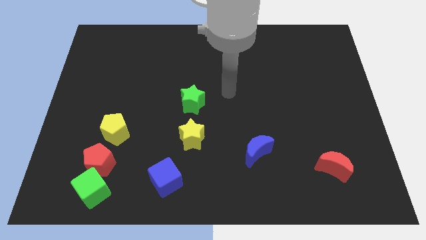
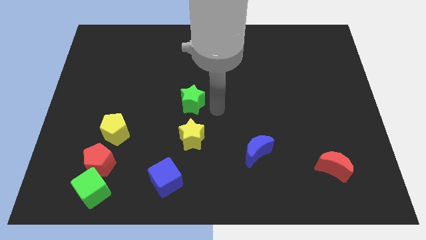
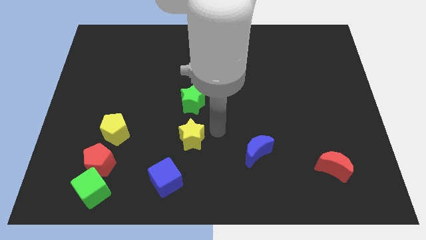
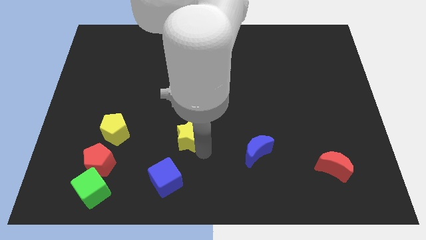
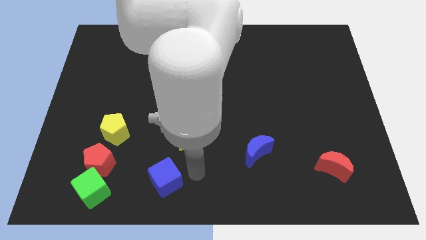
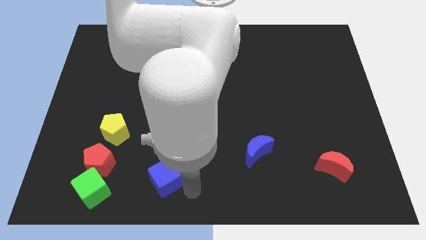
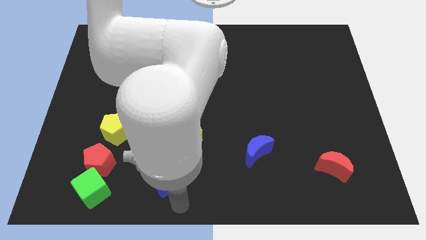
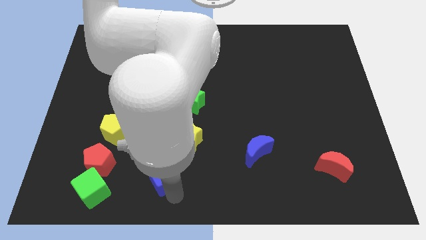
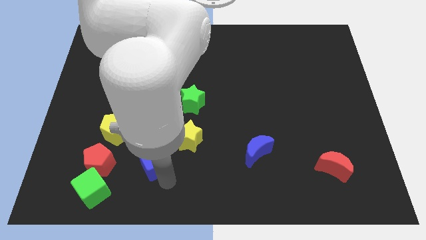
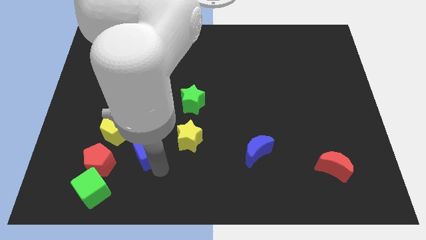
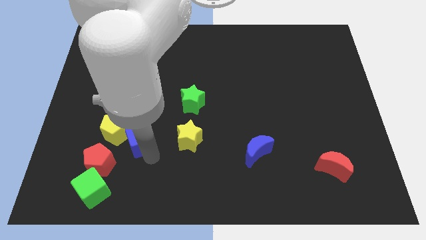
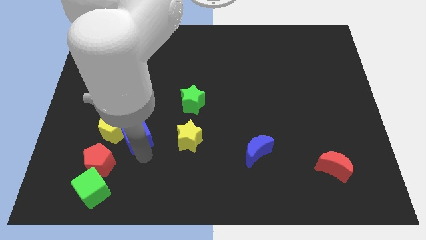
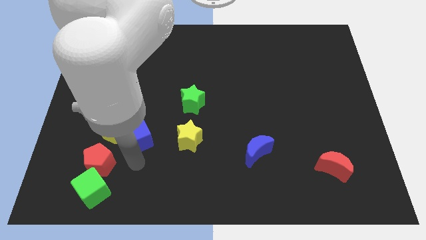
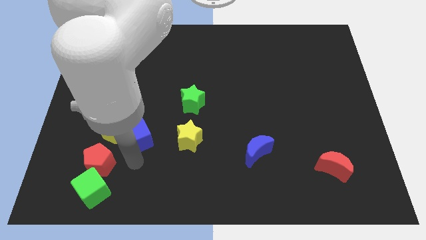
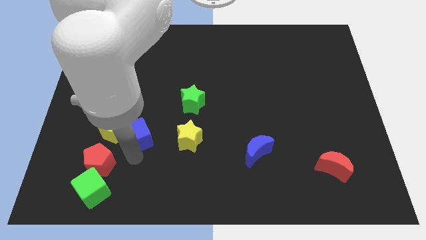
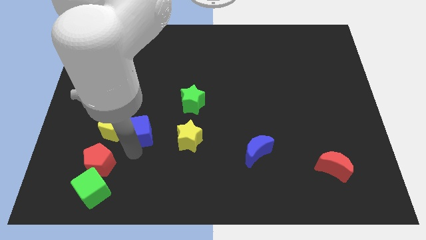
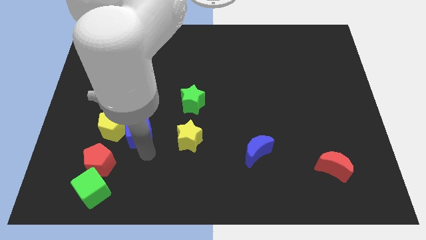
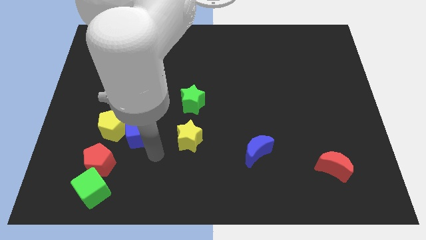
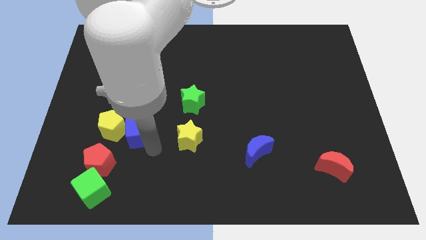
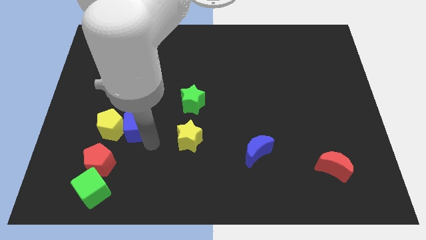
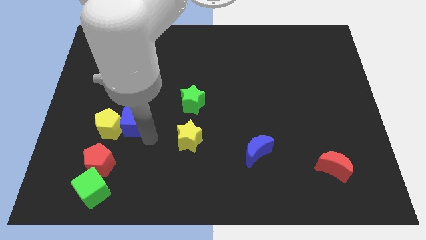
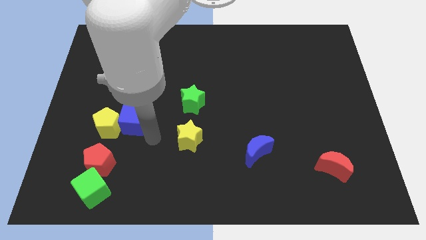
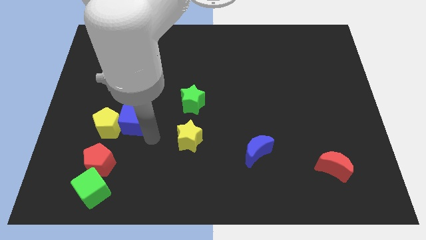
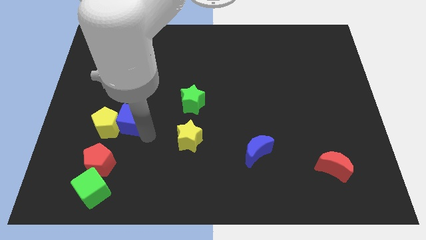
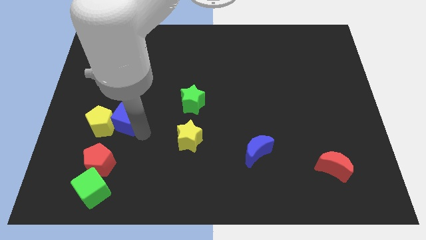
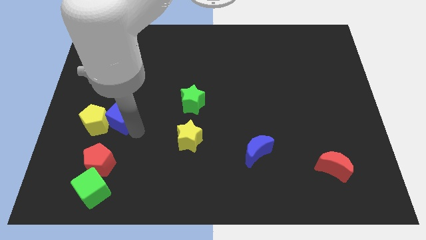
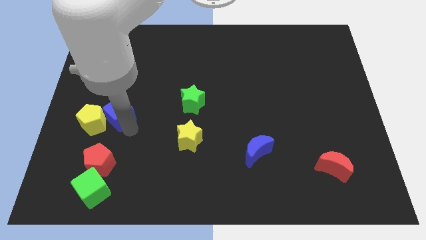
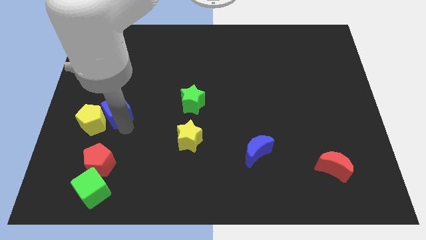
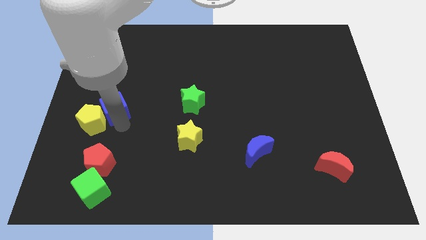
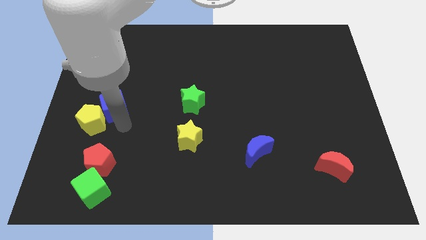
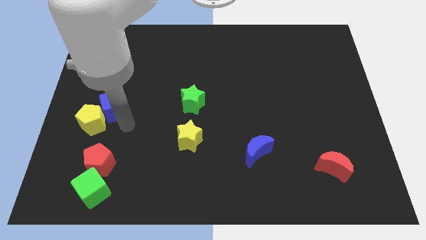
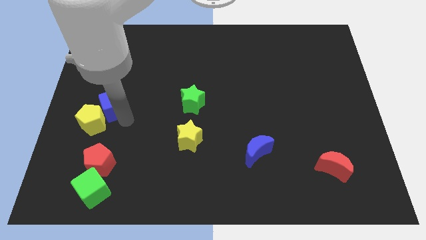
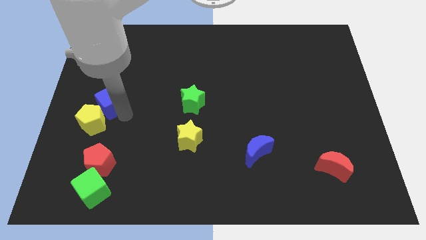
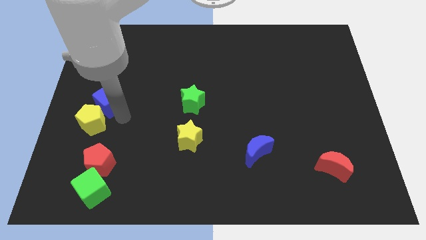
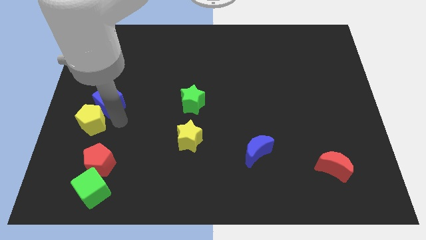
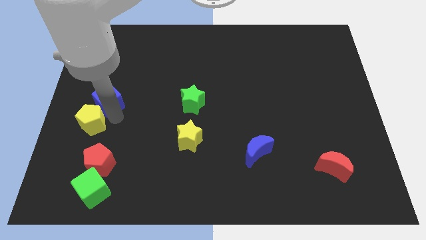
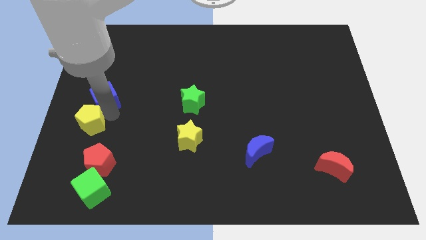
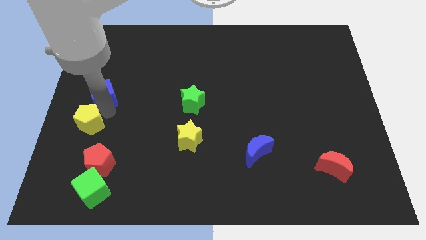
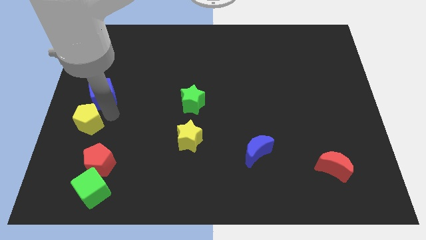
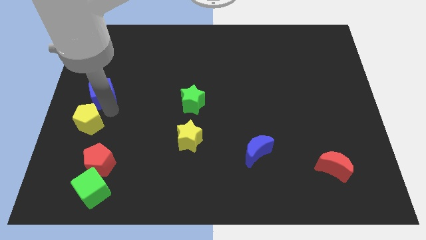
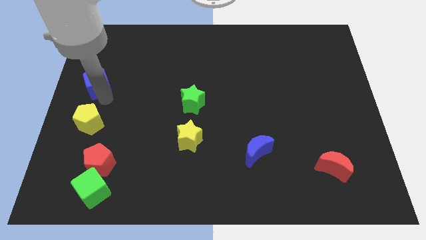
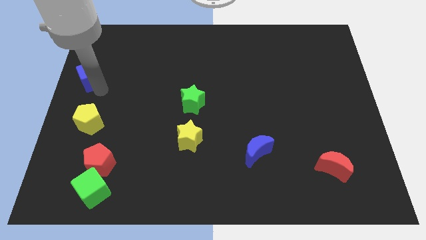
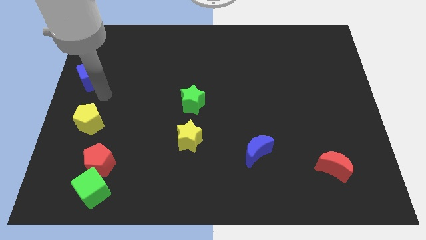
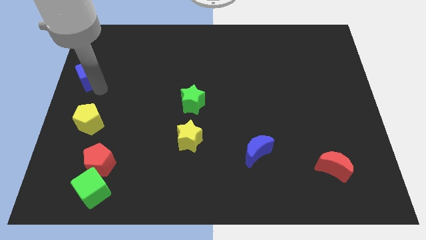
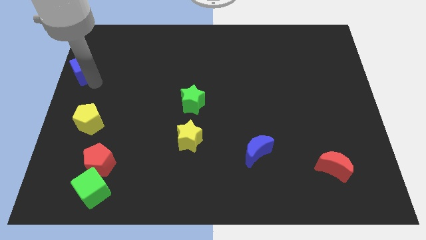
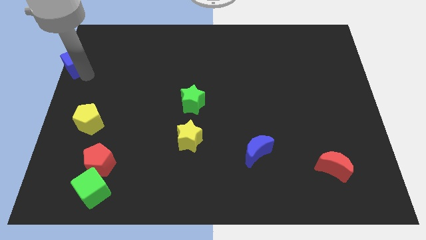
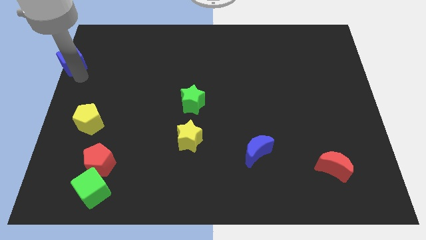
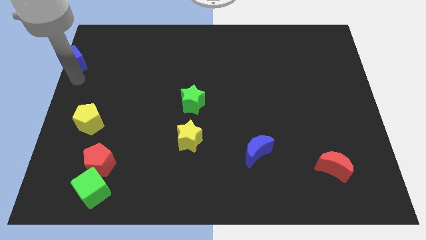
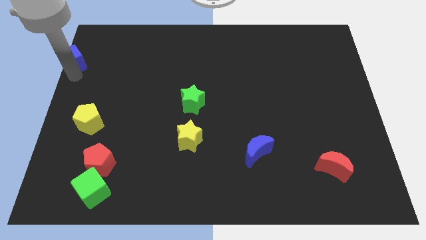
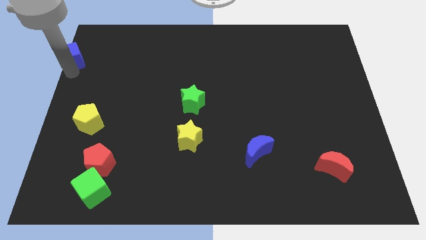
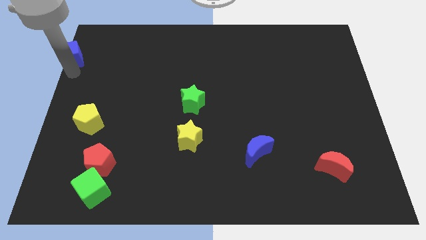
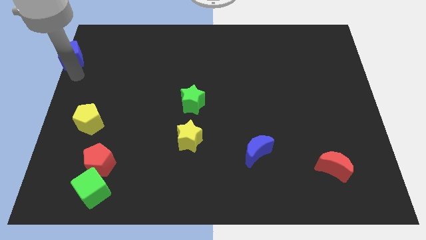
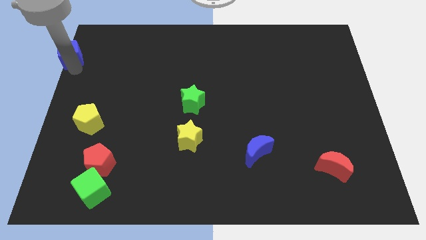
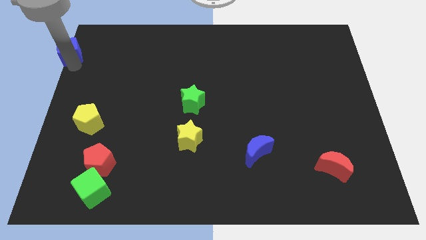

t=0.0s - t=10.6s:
push the blue cube to the upper left corner

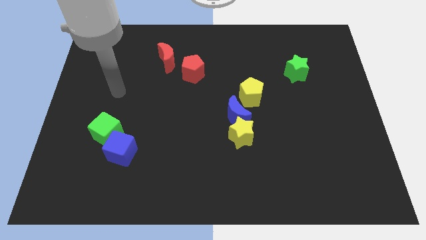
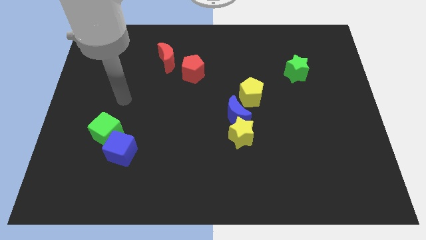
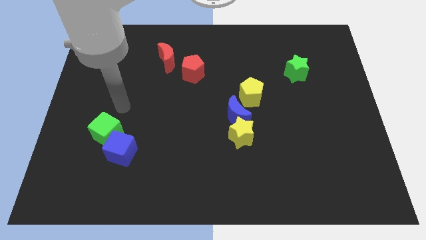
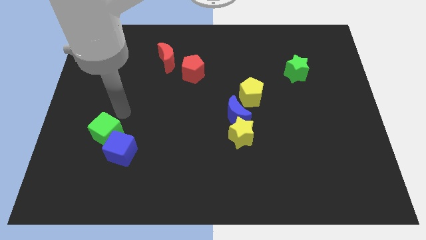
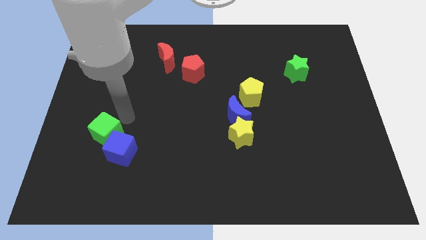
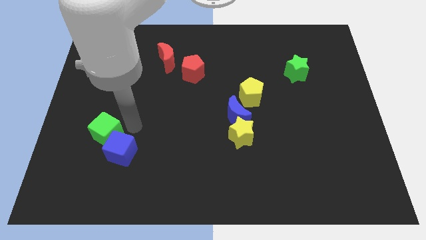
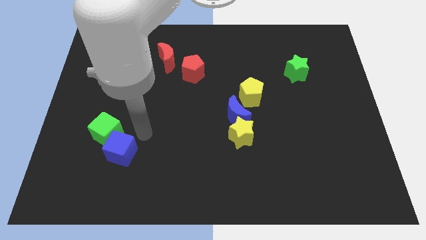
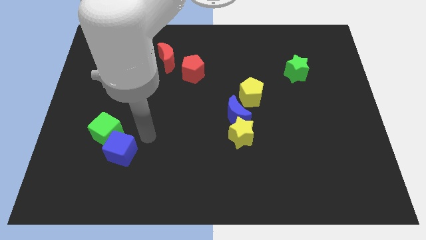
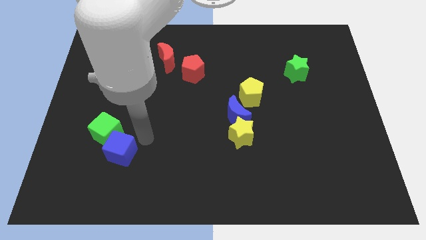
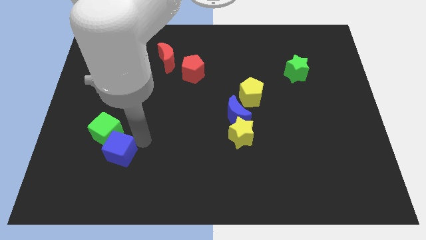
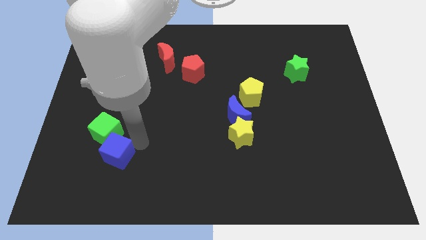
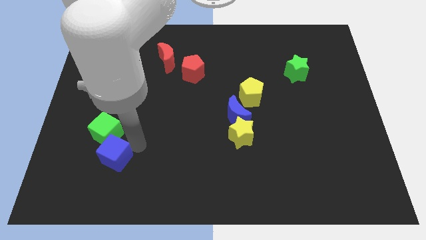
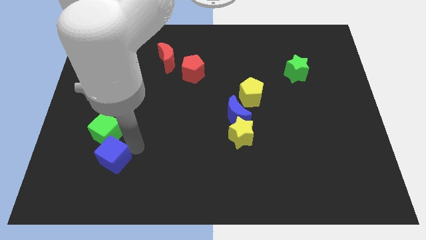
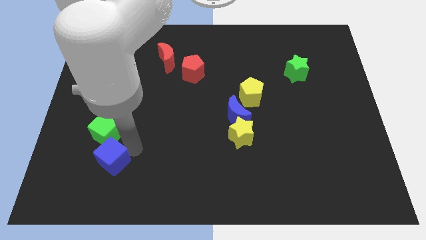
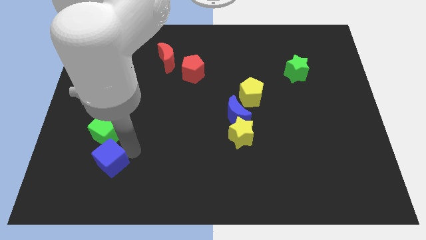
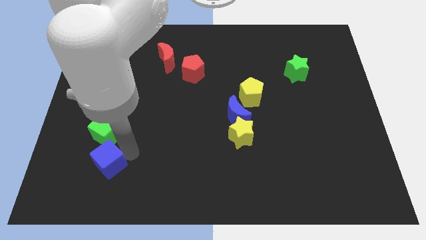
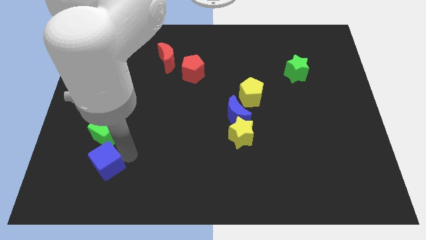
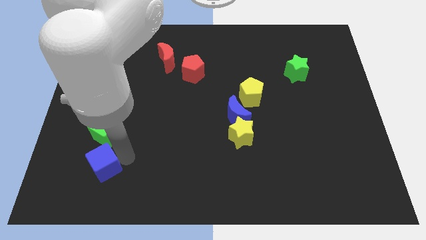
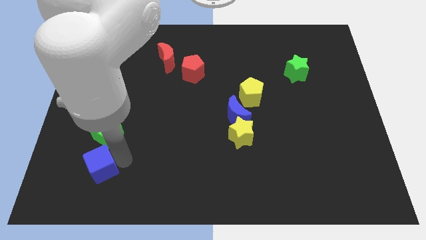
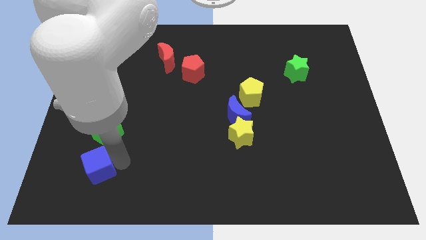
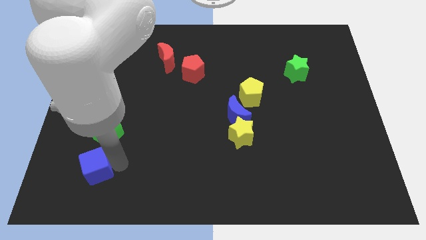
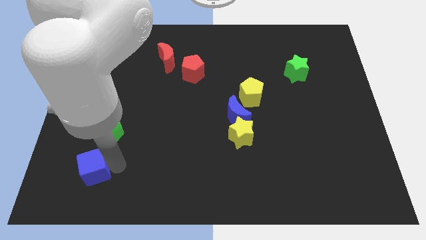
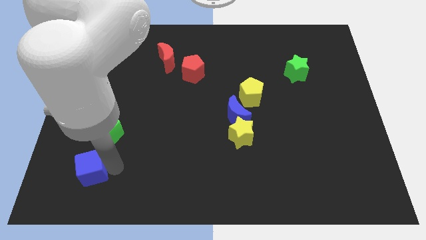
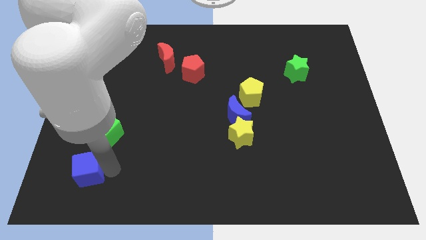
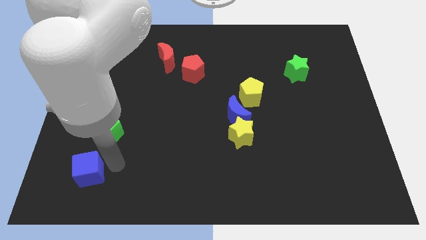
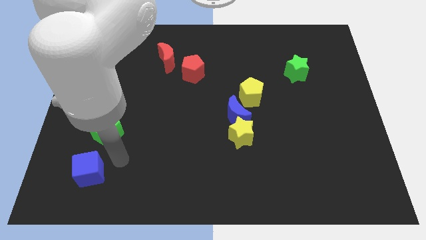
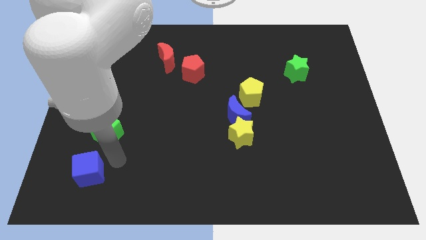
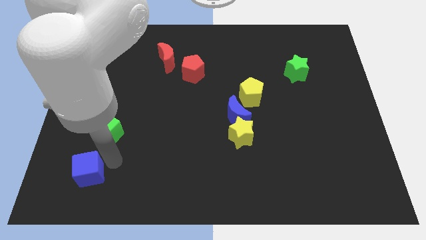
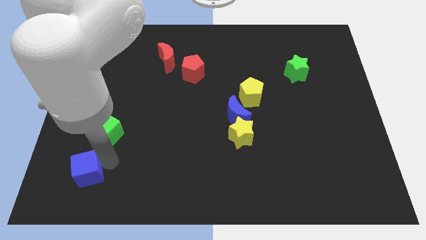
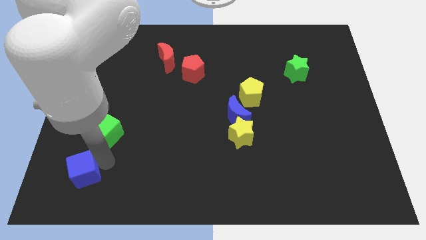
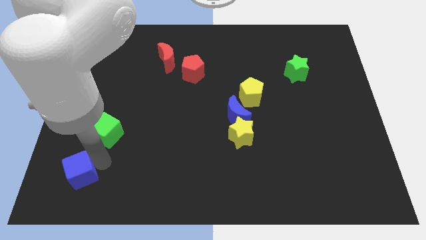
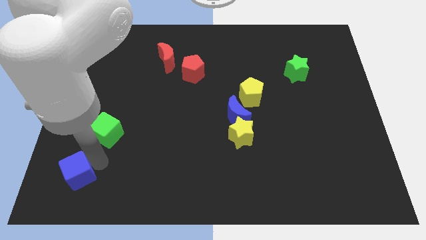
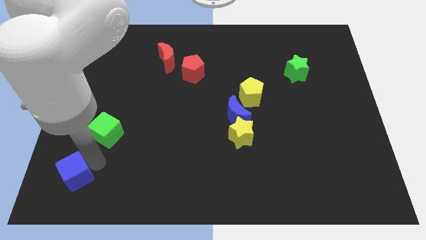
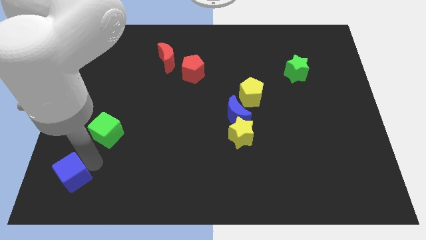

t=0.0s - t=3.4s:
slide the blue cube to the bottom left
